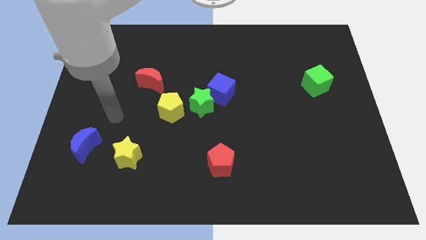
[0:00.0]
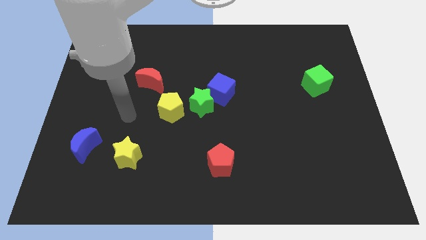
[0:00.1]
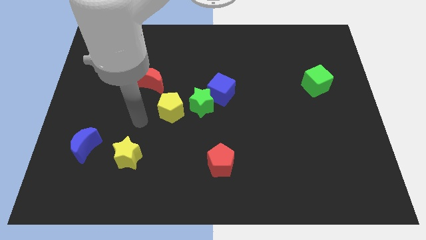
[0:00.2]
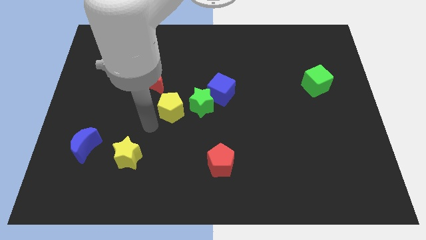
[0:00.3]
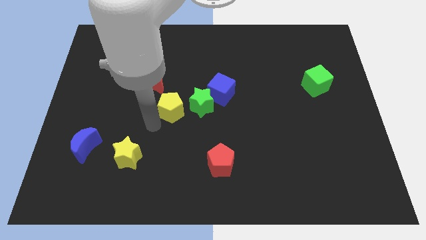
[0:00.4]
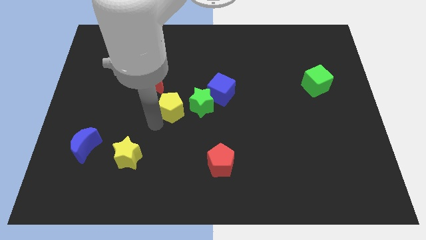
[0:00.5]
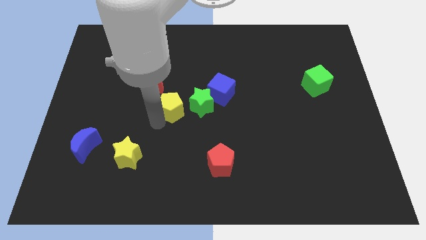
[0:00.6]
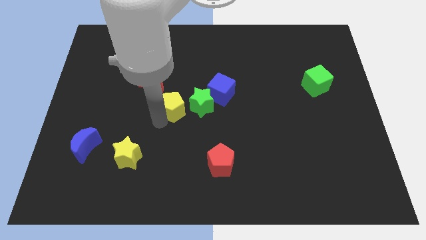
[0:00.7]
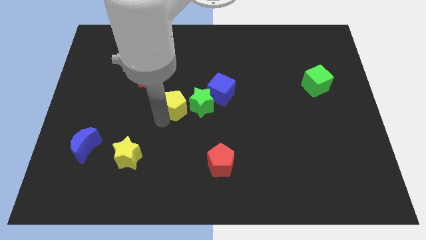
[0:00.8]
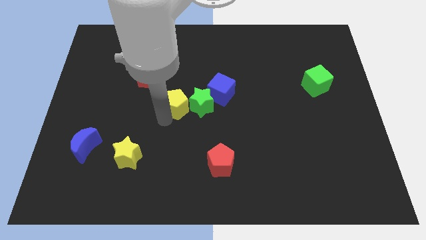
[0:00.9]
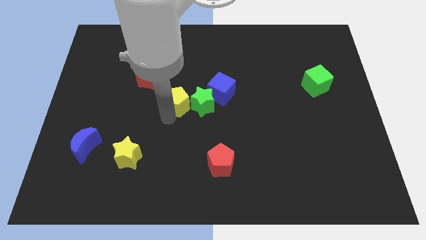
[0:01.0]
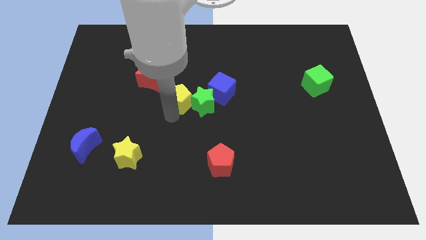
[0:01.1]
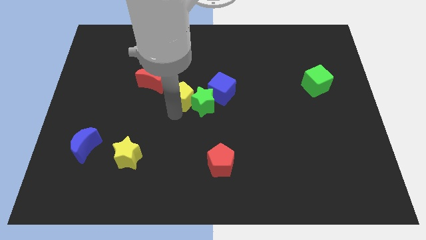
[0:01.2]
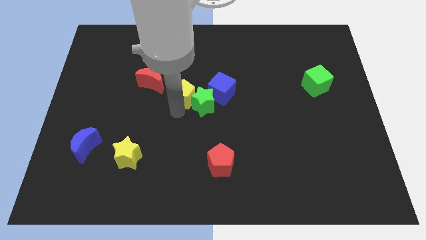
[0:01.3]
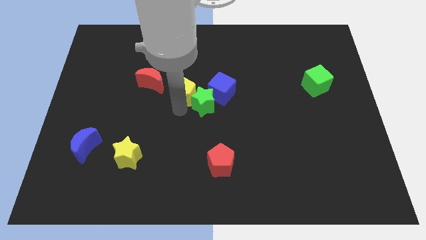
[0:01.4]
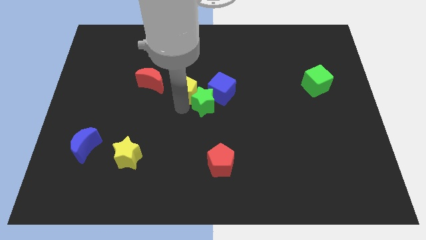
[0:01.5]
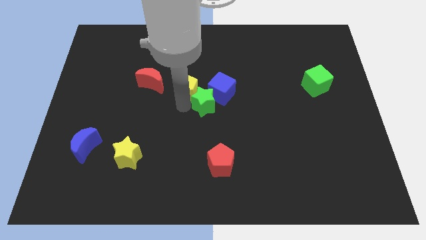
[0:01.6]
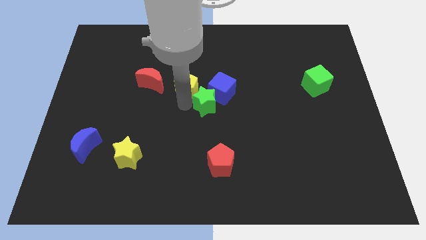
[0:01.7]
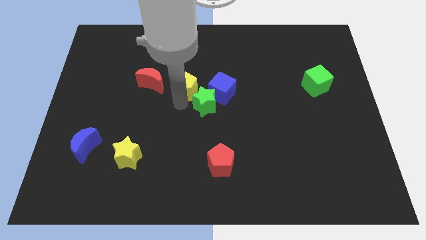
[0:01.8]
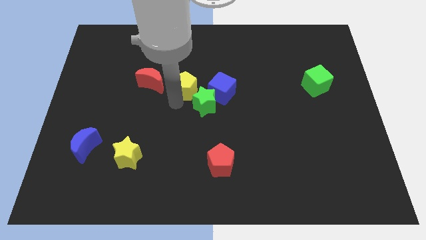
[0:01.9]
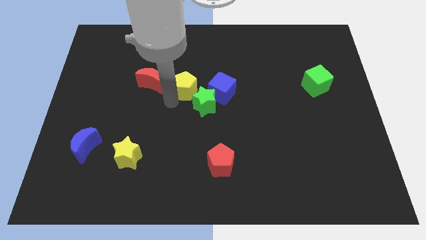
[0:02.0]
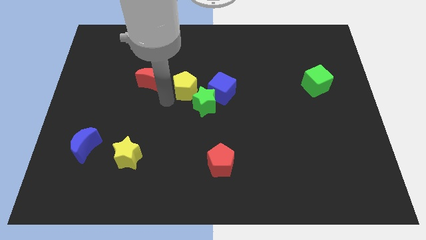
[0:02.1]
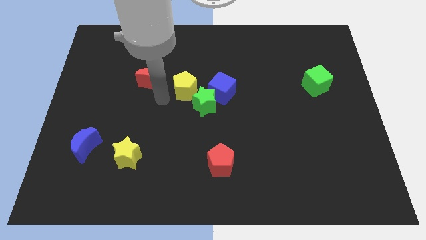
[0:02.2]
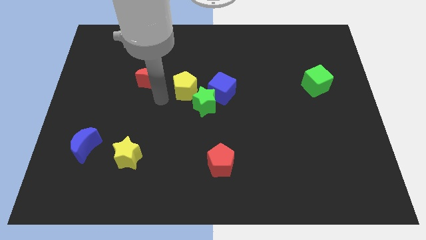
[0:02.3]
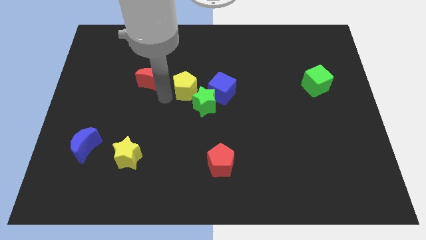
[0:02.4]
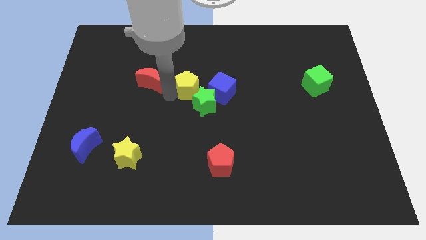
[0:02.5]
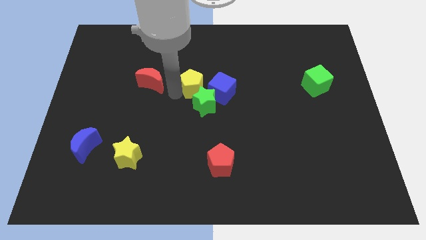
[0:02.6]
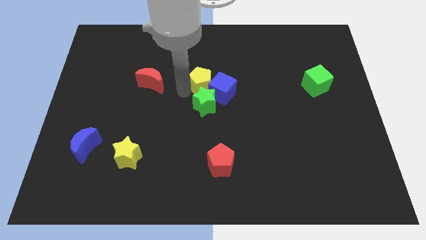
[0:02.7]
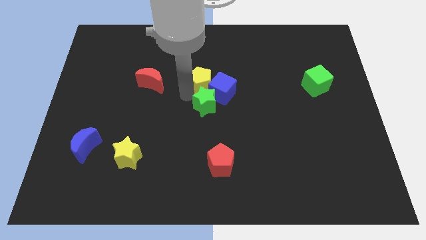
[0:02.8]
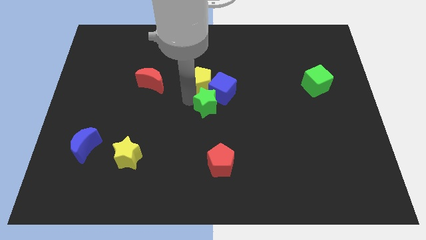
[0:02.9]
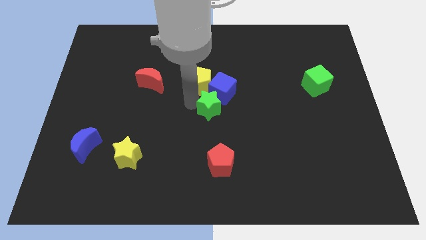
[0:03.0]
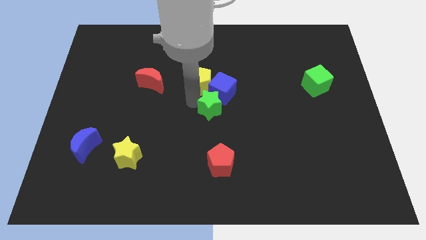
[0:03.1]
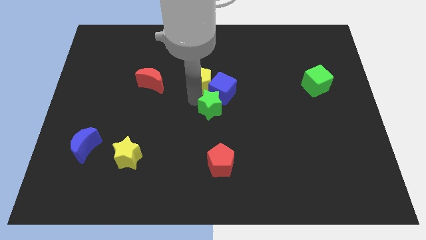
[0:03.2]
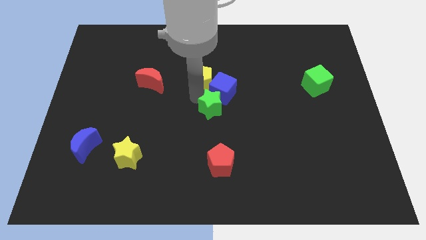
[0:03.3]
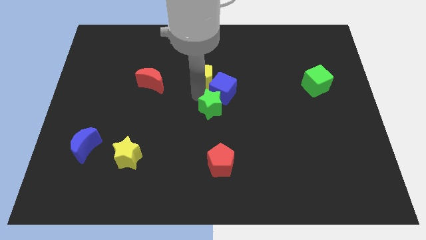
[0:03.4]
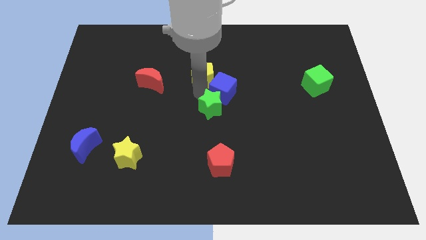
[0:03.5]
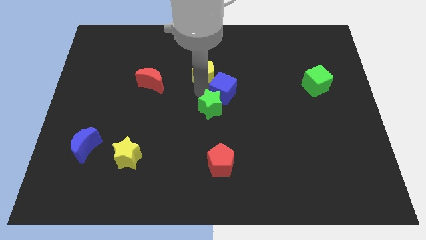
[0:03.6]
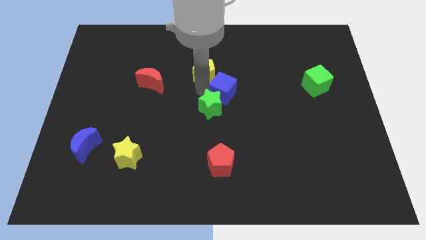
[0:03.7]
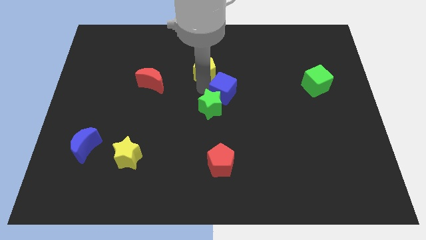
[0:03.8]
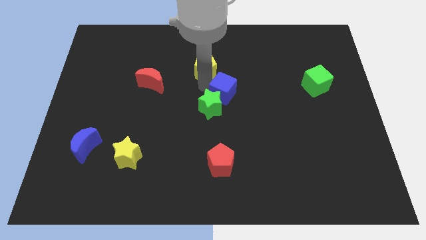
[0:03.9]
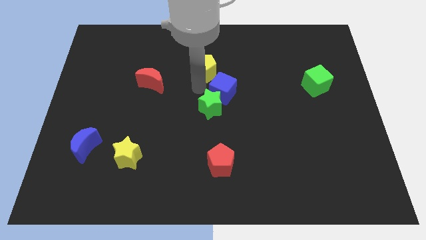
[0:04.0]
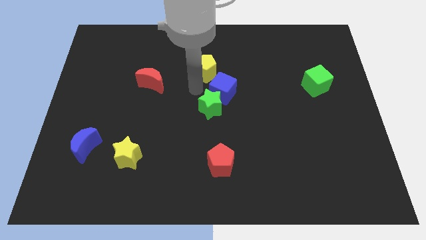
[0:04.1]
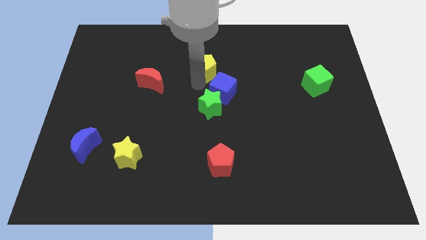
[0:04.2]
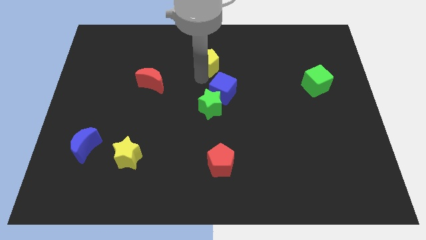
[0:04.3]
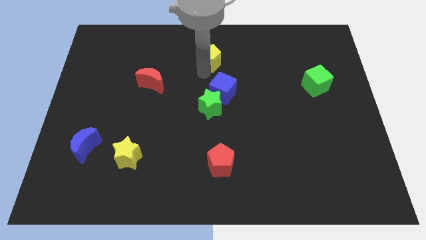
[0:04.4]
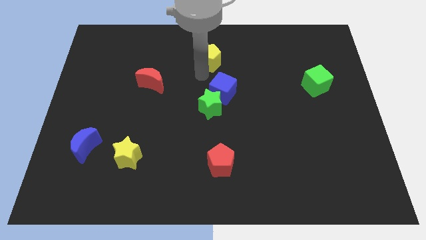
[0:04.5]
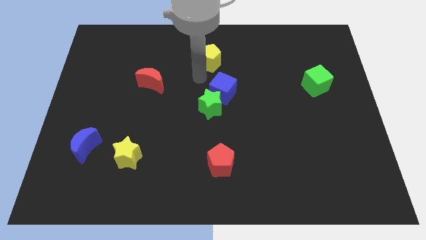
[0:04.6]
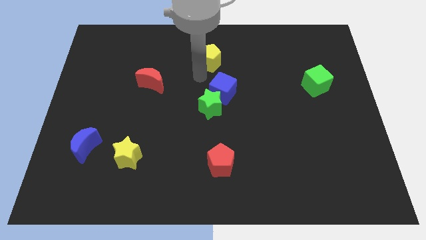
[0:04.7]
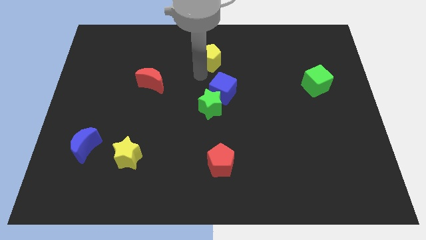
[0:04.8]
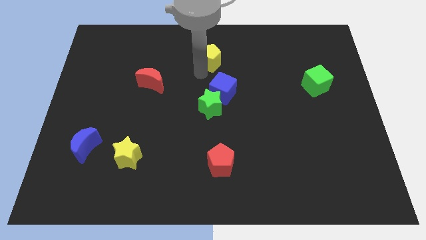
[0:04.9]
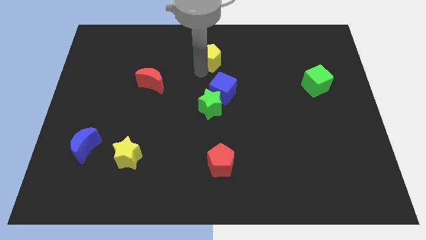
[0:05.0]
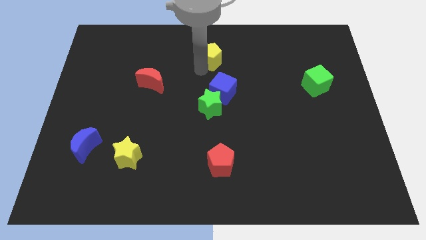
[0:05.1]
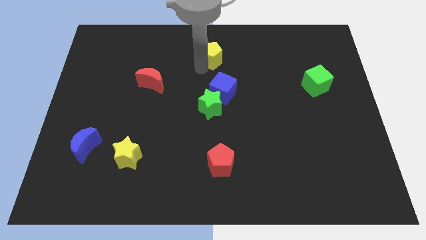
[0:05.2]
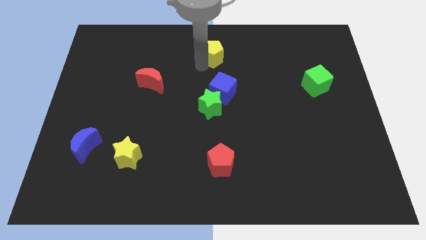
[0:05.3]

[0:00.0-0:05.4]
put the yellow pentagon to the top

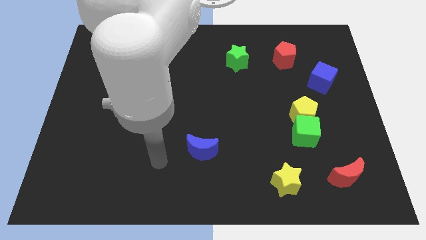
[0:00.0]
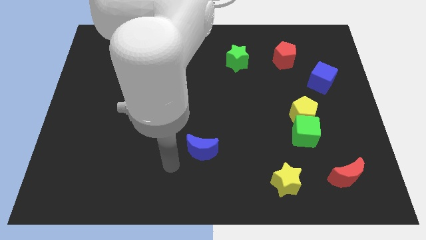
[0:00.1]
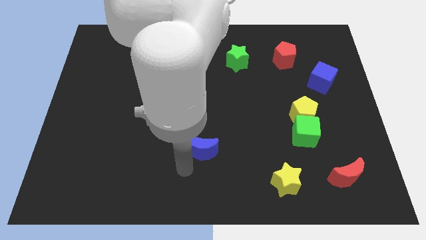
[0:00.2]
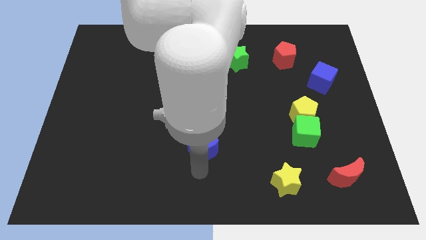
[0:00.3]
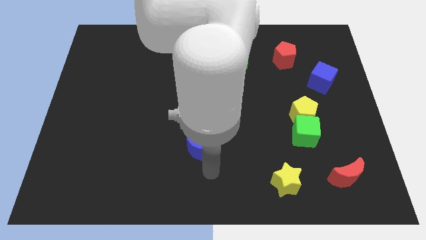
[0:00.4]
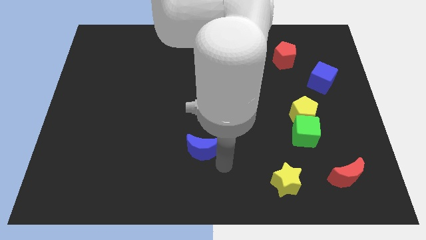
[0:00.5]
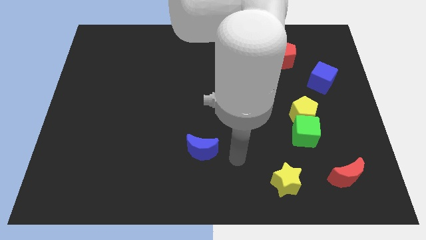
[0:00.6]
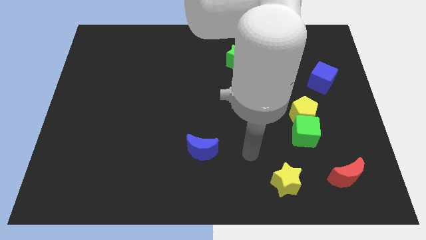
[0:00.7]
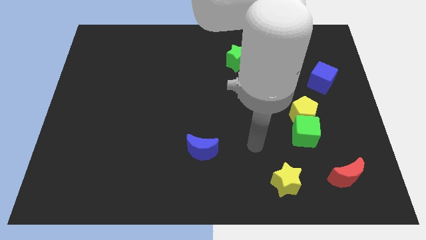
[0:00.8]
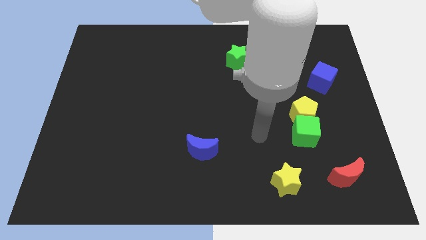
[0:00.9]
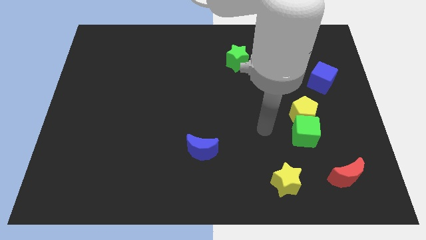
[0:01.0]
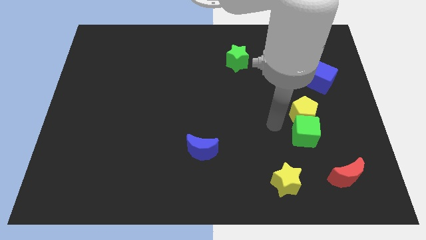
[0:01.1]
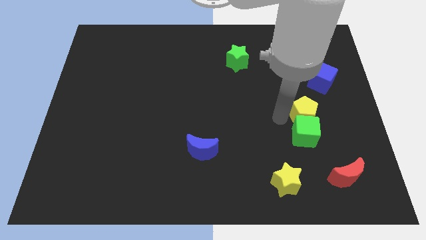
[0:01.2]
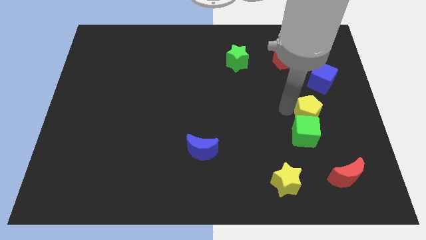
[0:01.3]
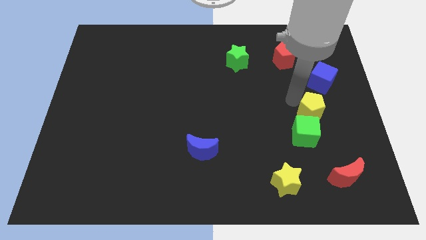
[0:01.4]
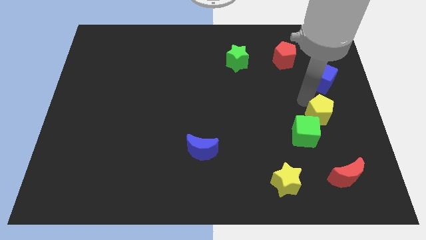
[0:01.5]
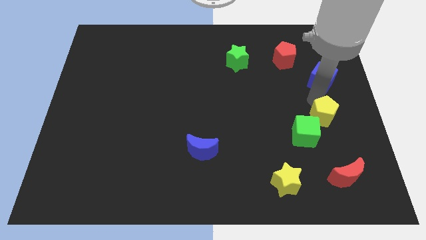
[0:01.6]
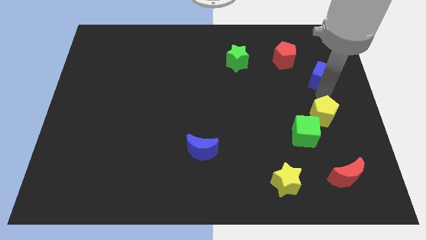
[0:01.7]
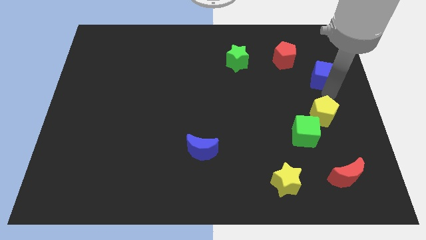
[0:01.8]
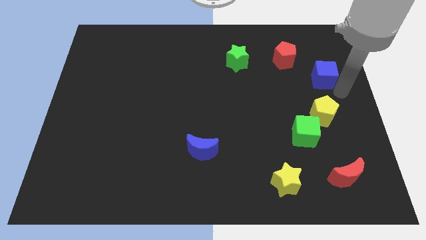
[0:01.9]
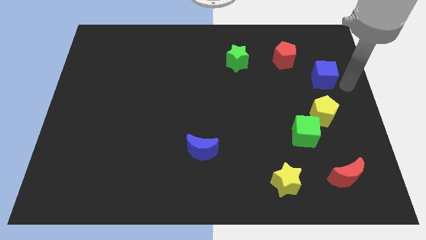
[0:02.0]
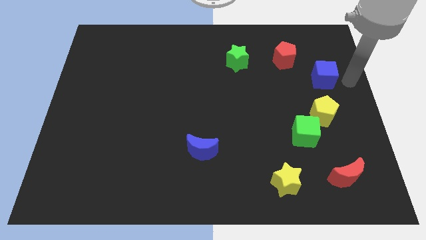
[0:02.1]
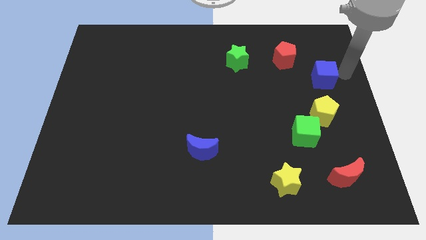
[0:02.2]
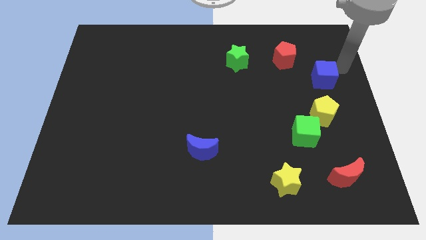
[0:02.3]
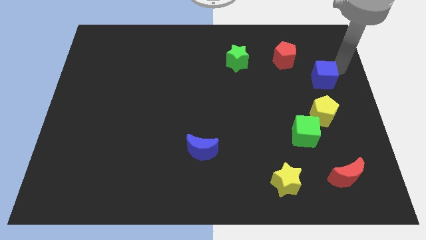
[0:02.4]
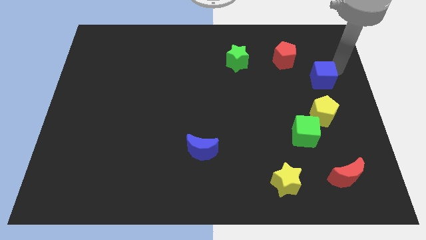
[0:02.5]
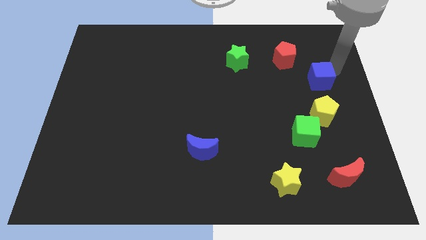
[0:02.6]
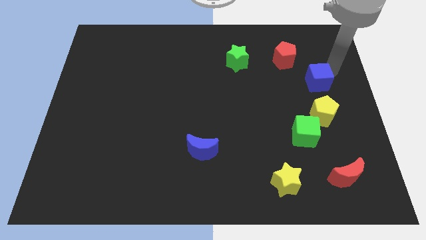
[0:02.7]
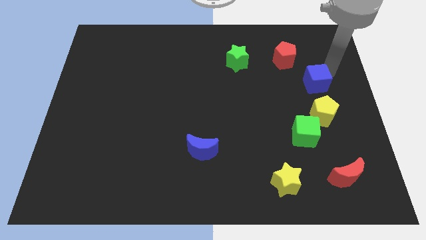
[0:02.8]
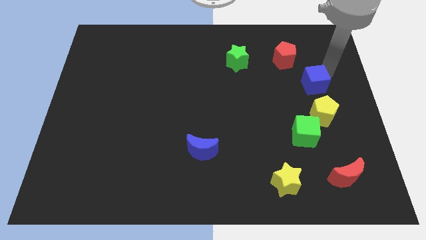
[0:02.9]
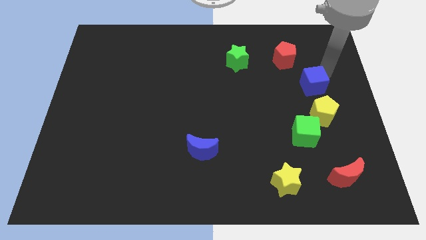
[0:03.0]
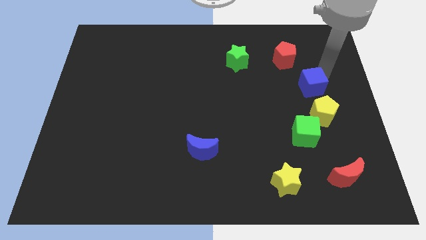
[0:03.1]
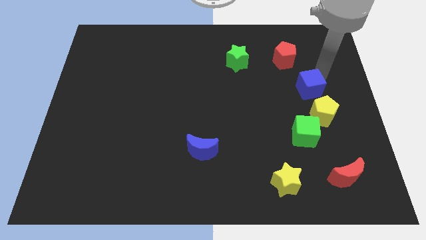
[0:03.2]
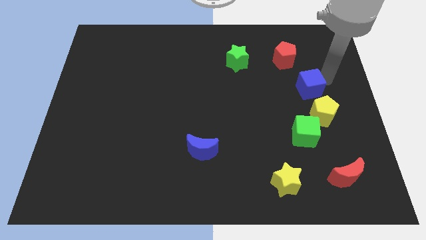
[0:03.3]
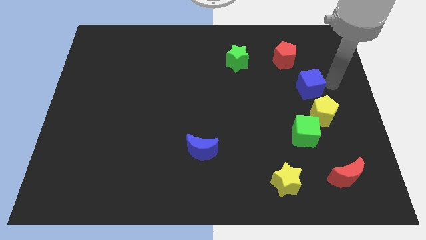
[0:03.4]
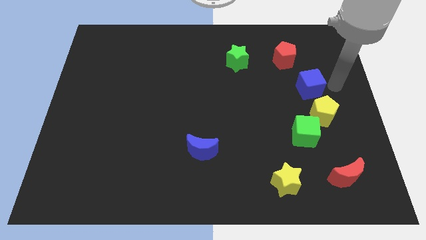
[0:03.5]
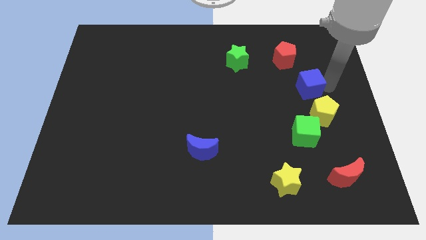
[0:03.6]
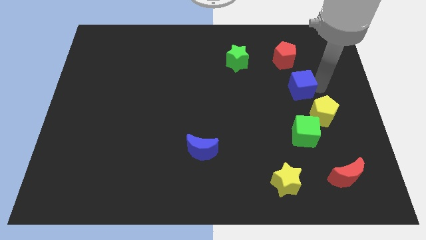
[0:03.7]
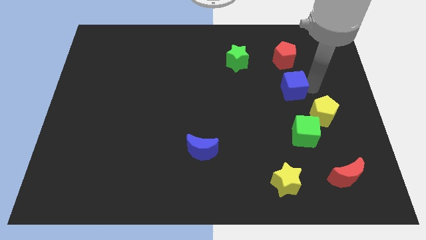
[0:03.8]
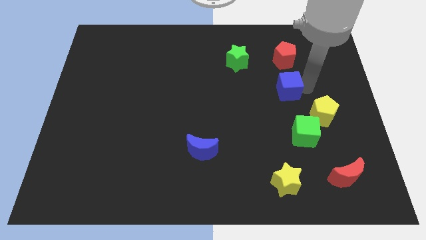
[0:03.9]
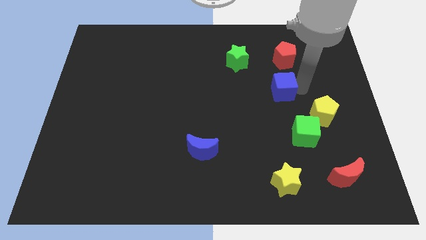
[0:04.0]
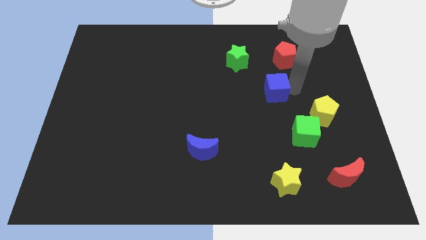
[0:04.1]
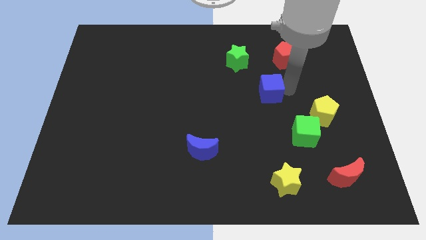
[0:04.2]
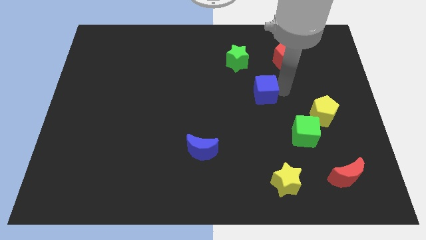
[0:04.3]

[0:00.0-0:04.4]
move the blue cube to the middle
